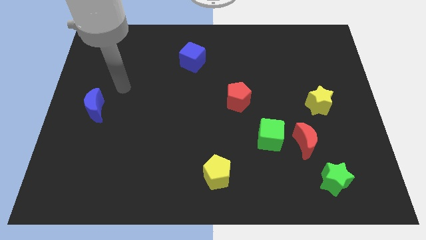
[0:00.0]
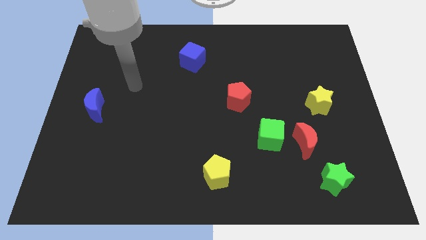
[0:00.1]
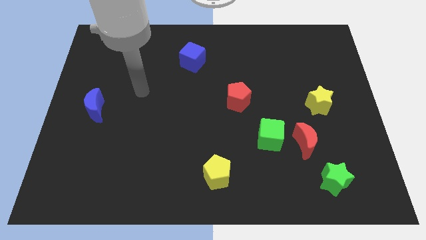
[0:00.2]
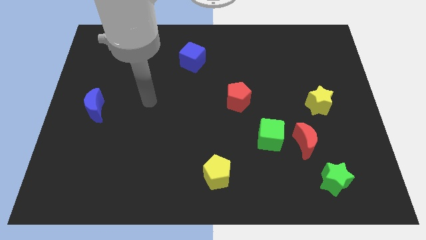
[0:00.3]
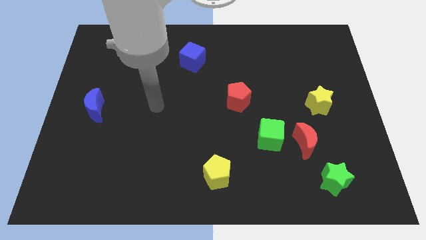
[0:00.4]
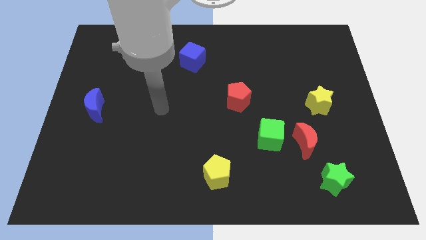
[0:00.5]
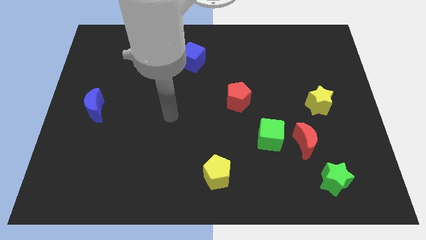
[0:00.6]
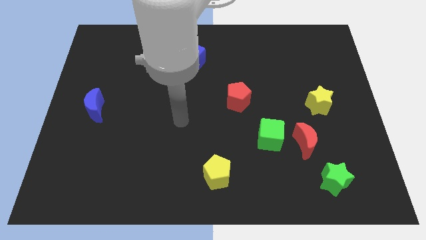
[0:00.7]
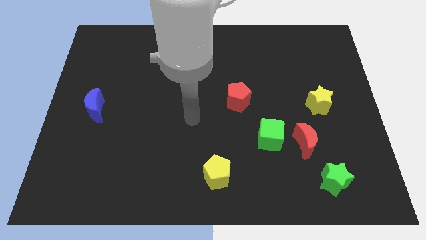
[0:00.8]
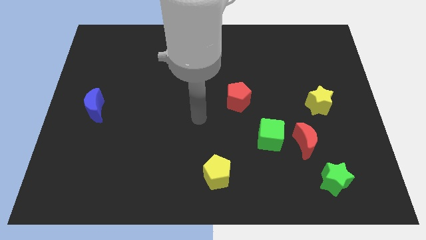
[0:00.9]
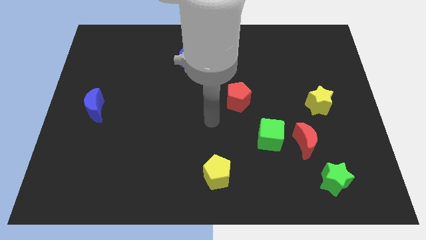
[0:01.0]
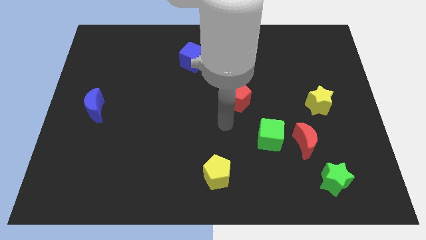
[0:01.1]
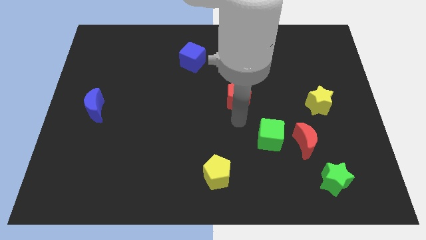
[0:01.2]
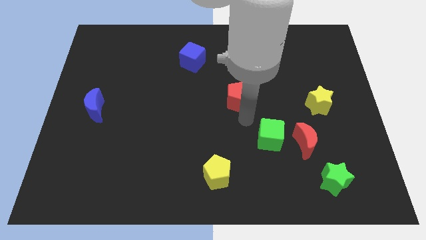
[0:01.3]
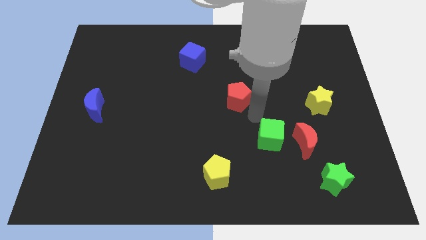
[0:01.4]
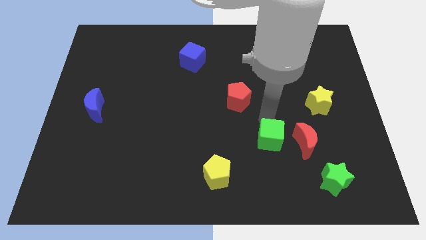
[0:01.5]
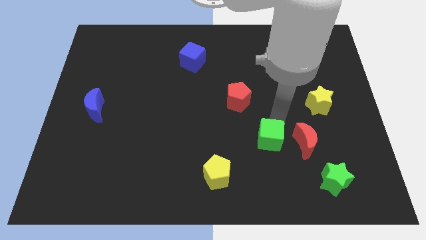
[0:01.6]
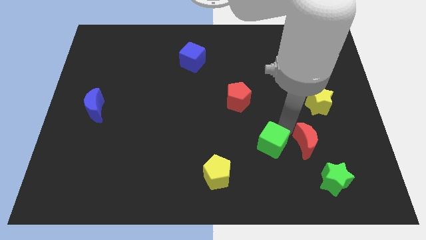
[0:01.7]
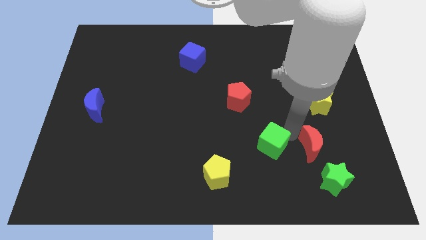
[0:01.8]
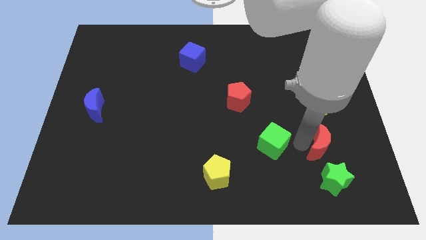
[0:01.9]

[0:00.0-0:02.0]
pull the green cube apart from the red moon

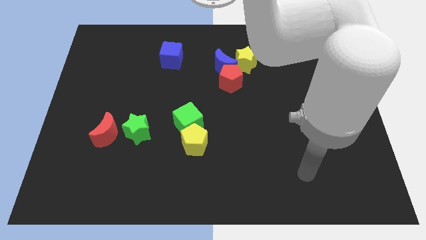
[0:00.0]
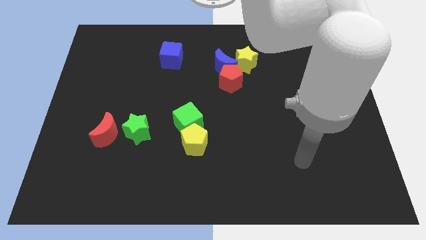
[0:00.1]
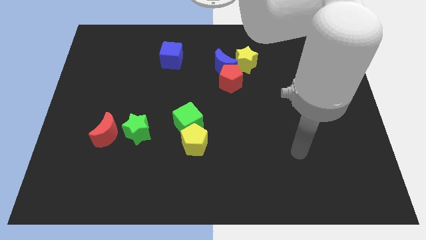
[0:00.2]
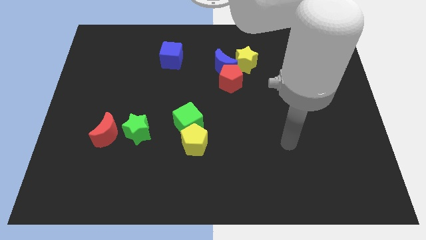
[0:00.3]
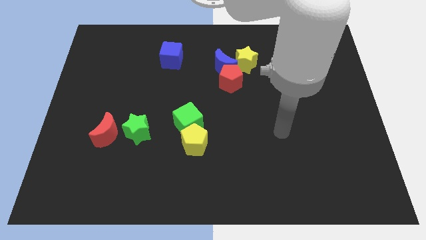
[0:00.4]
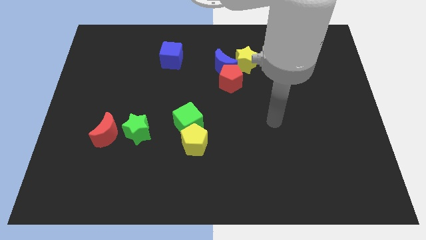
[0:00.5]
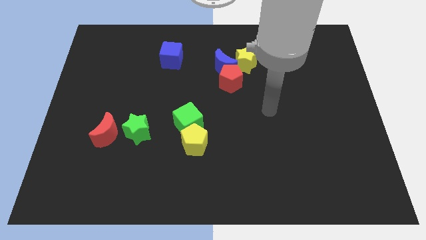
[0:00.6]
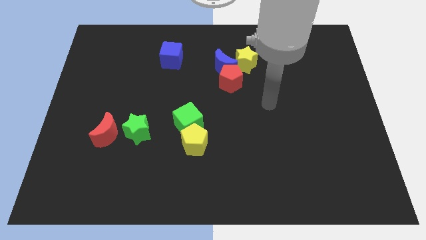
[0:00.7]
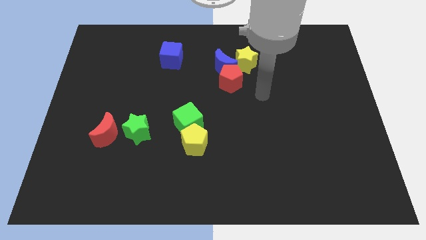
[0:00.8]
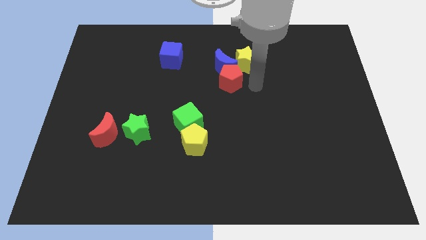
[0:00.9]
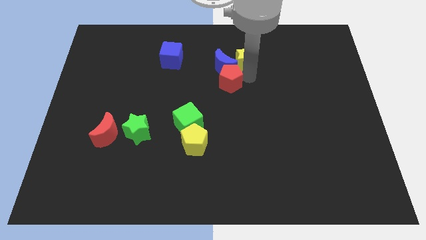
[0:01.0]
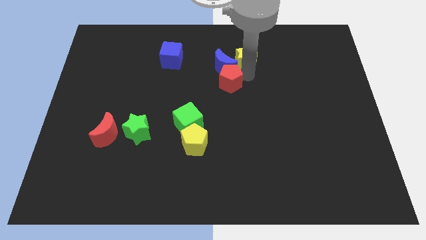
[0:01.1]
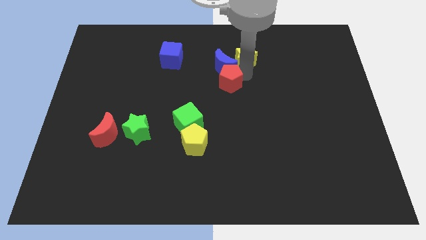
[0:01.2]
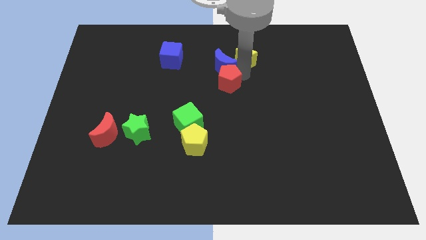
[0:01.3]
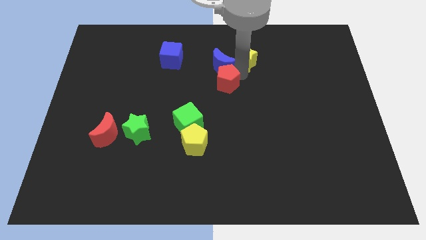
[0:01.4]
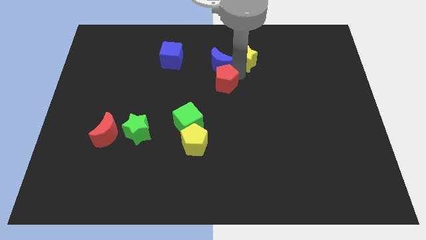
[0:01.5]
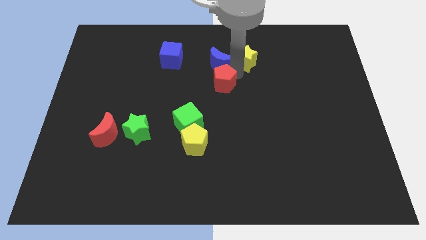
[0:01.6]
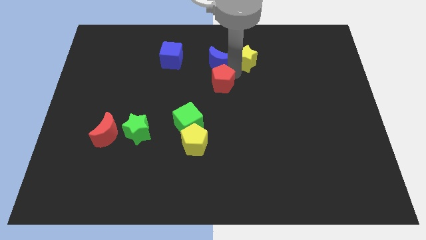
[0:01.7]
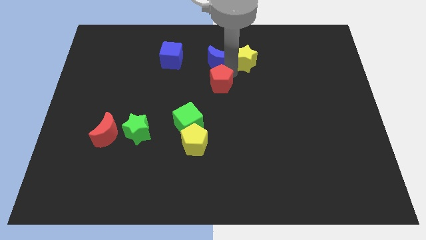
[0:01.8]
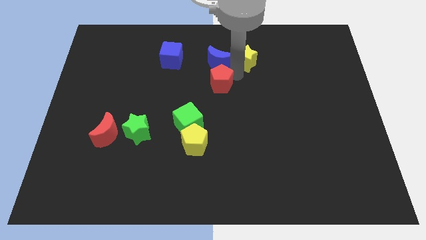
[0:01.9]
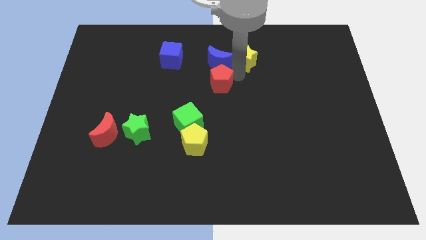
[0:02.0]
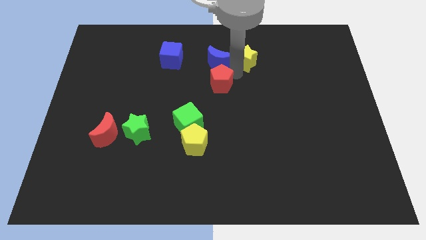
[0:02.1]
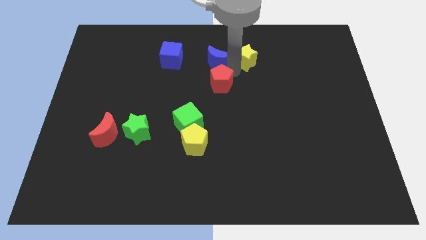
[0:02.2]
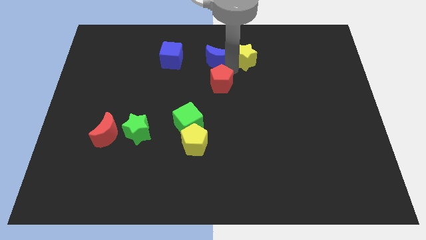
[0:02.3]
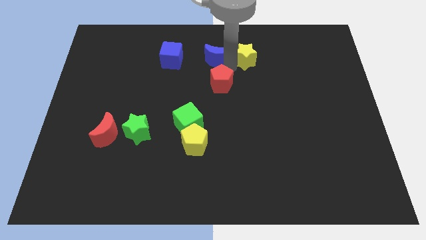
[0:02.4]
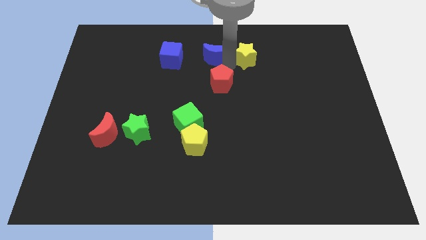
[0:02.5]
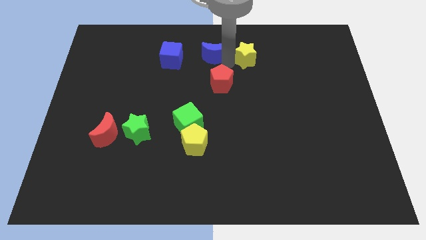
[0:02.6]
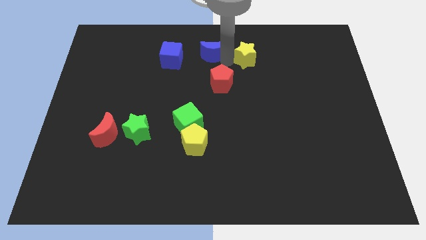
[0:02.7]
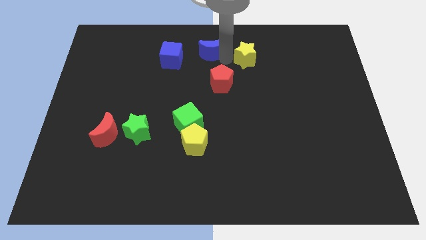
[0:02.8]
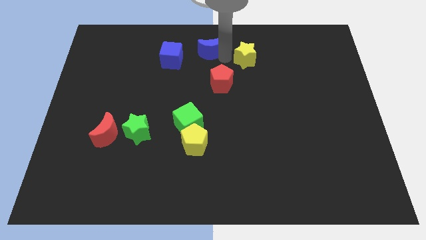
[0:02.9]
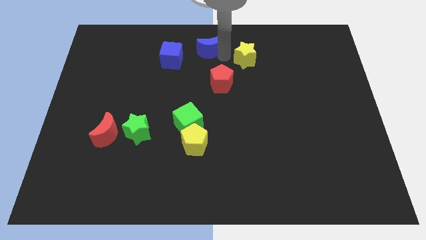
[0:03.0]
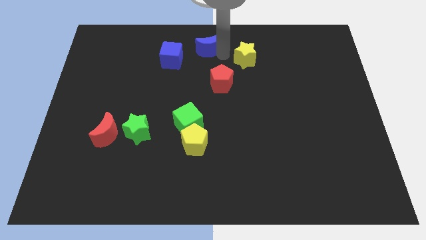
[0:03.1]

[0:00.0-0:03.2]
separate the blue moon from the red pentagon and yellow star

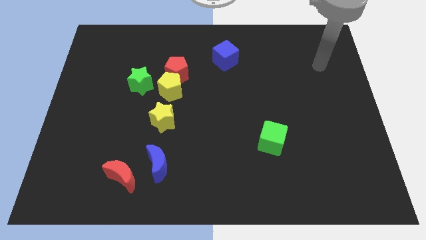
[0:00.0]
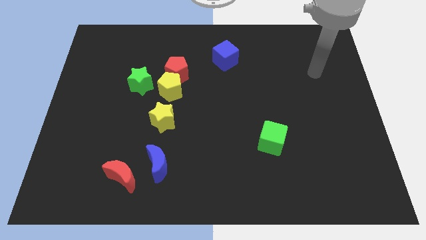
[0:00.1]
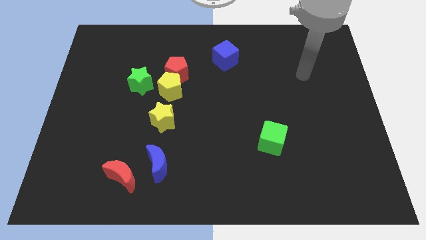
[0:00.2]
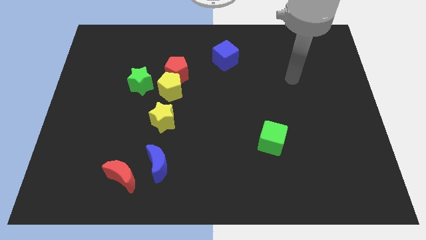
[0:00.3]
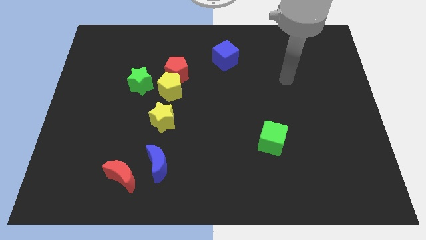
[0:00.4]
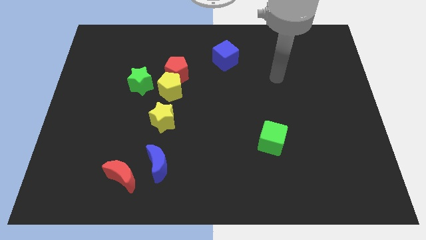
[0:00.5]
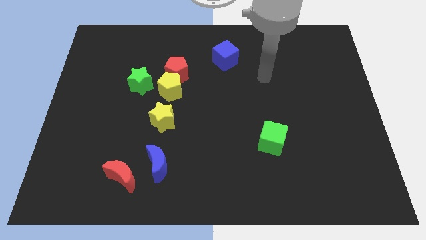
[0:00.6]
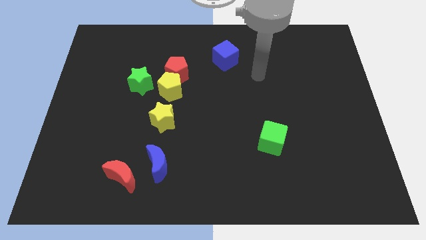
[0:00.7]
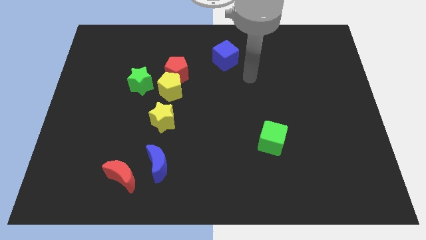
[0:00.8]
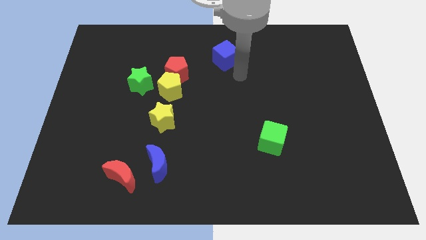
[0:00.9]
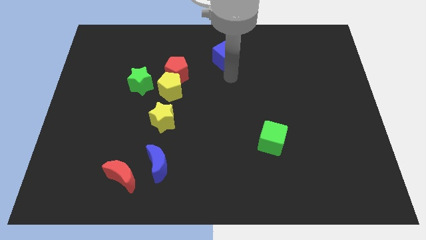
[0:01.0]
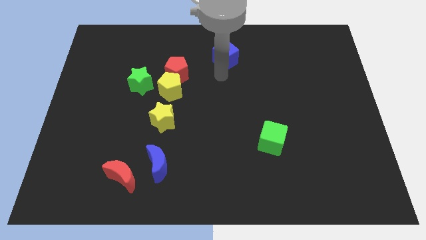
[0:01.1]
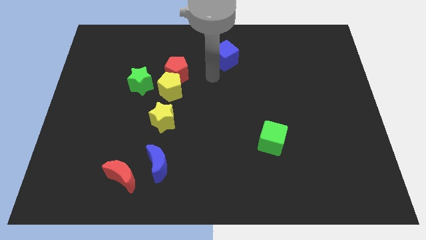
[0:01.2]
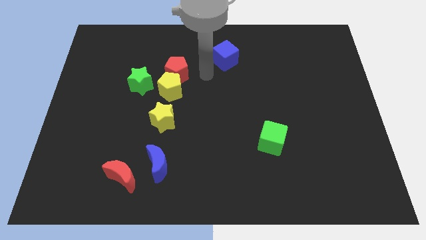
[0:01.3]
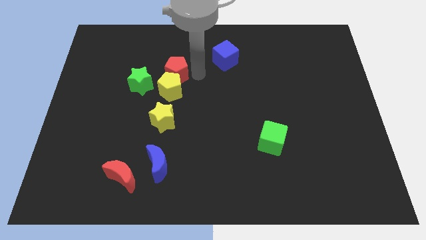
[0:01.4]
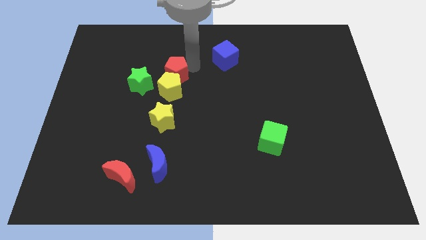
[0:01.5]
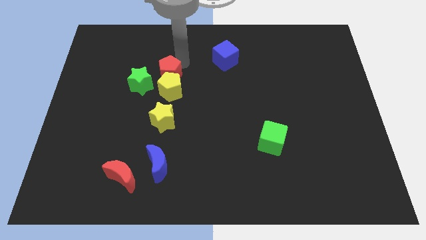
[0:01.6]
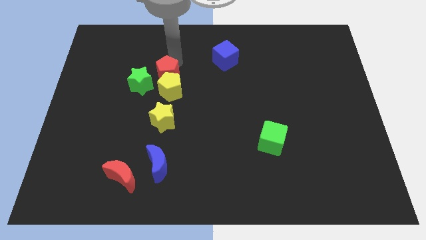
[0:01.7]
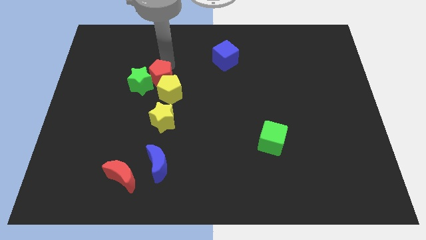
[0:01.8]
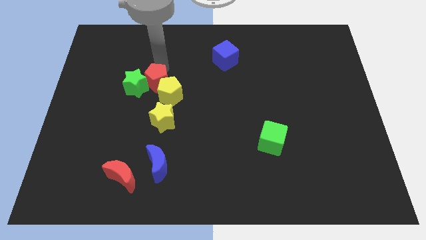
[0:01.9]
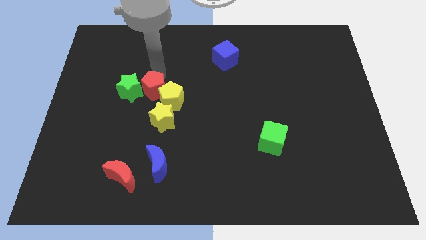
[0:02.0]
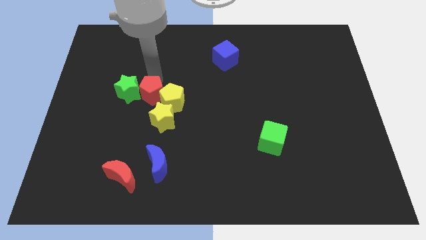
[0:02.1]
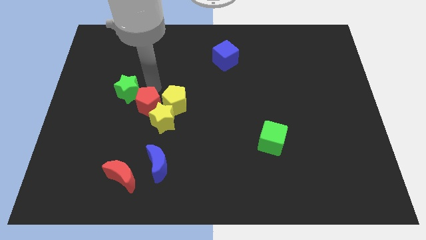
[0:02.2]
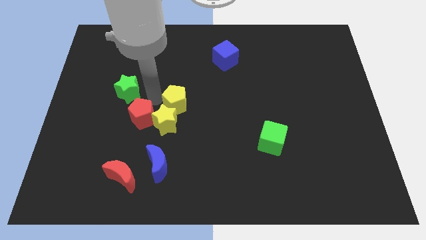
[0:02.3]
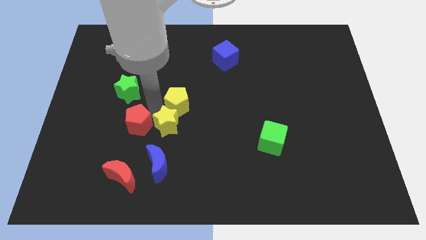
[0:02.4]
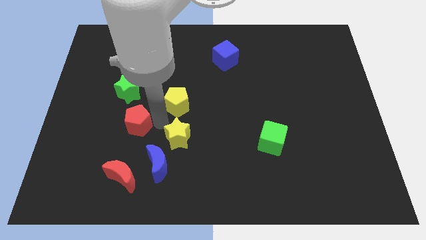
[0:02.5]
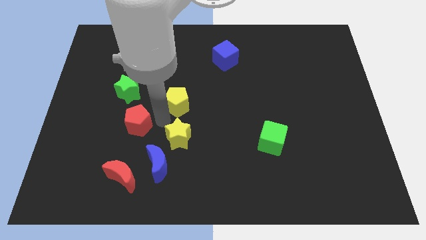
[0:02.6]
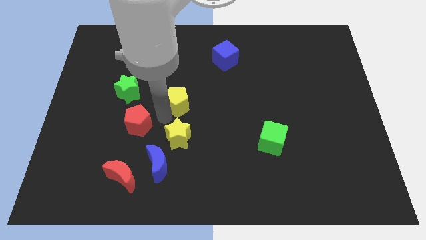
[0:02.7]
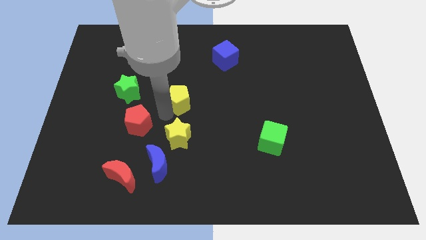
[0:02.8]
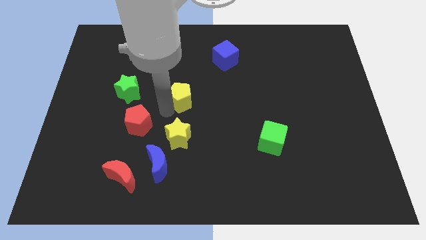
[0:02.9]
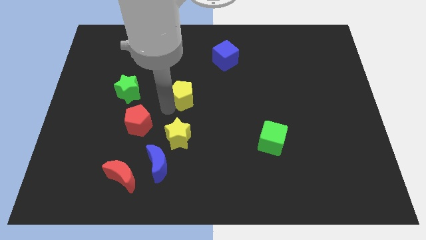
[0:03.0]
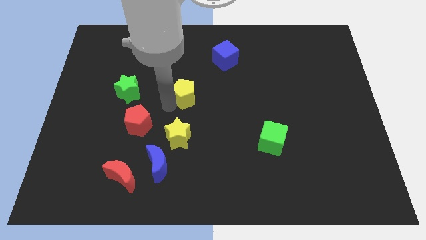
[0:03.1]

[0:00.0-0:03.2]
pull the yellow pentagon apart from the clump

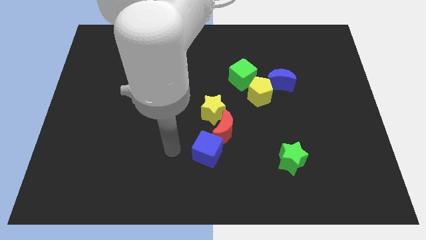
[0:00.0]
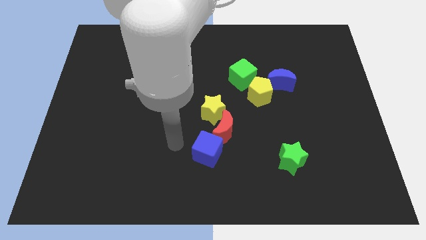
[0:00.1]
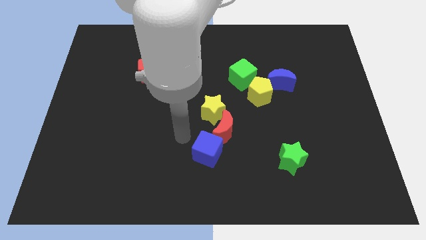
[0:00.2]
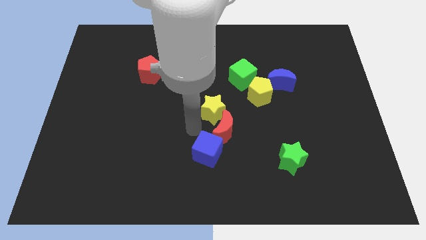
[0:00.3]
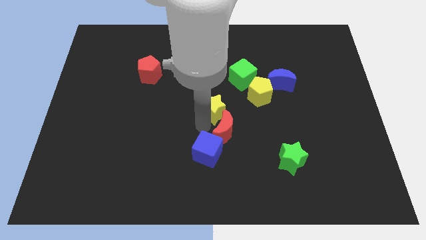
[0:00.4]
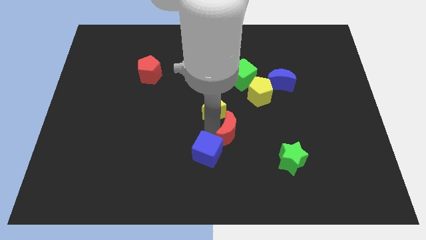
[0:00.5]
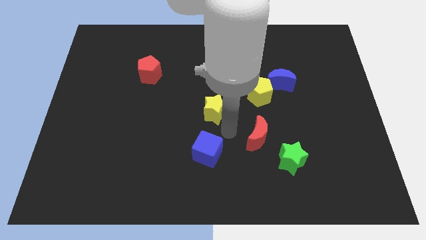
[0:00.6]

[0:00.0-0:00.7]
separate the yellow star from the red moon
